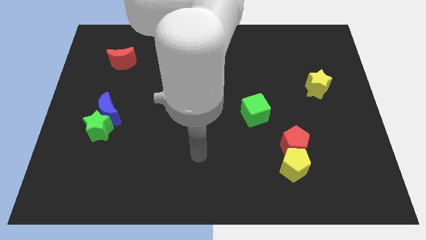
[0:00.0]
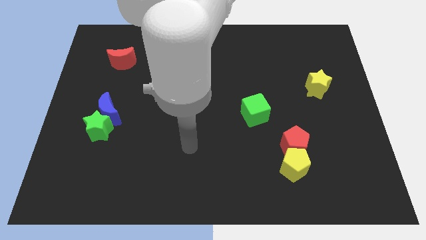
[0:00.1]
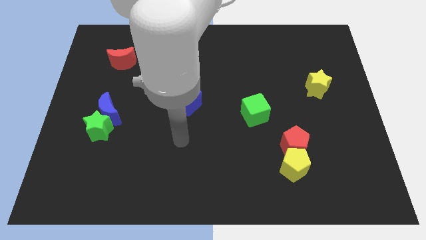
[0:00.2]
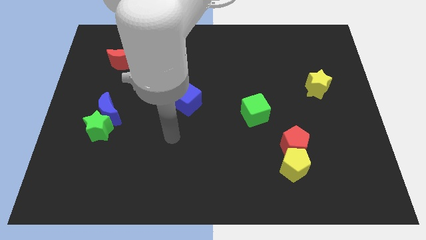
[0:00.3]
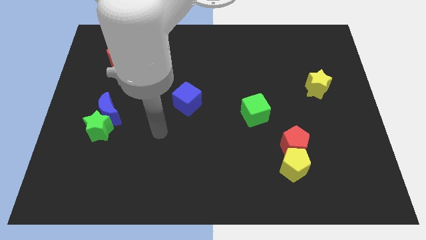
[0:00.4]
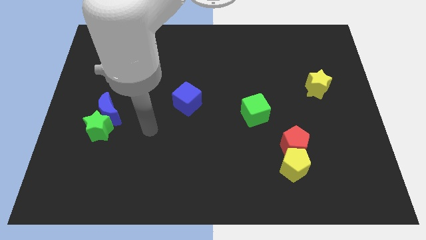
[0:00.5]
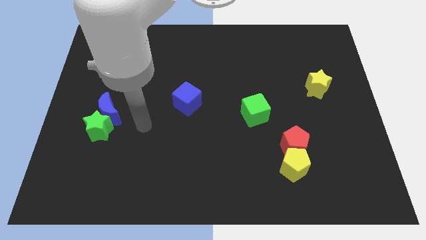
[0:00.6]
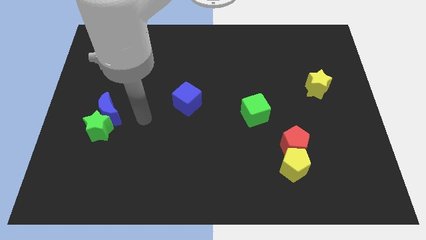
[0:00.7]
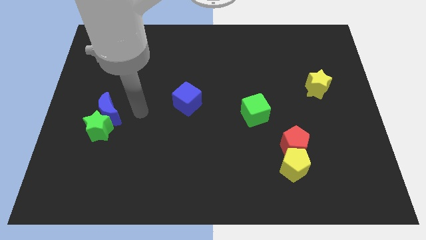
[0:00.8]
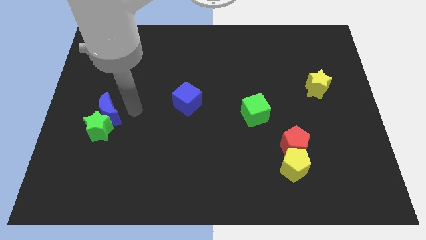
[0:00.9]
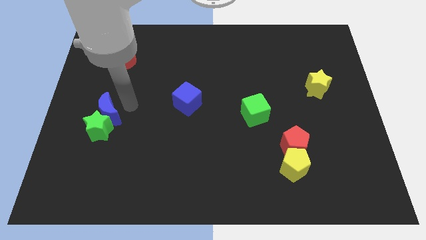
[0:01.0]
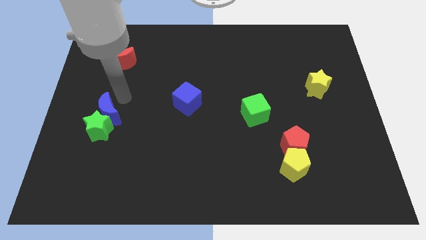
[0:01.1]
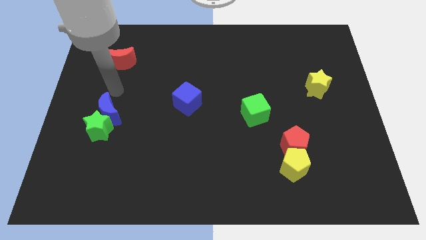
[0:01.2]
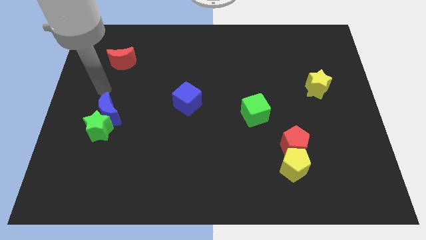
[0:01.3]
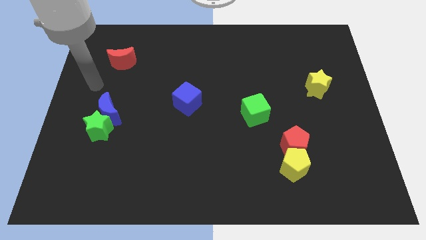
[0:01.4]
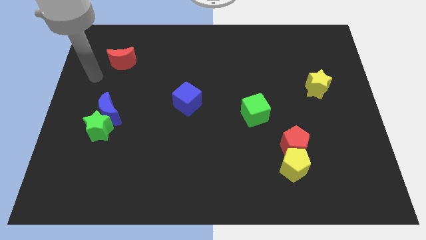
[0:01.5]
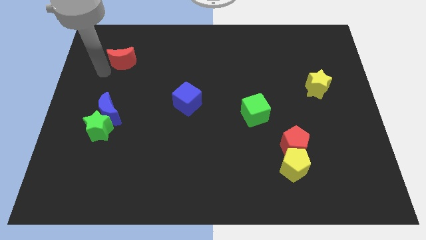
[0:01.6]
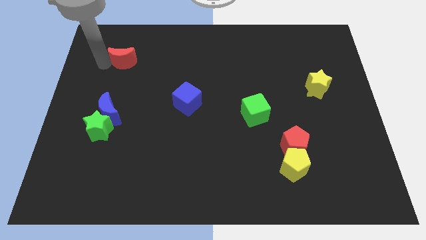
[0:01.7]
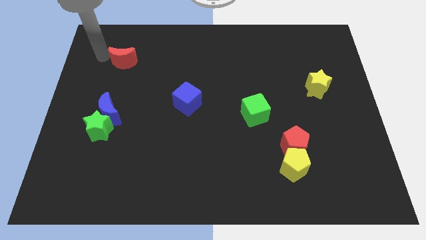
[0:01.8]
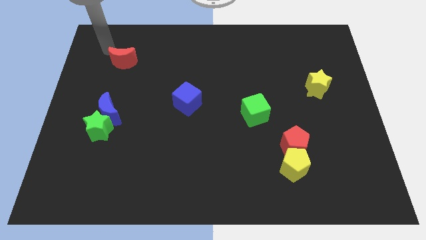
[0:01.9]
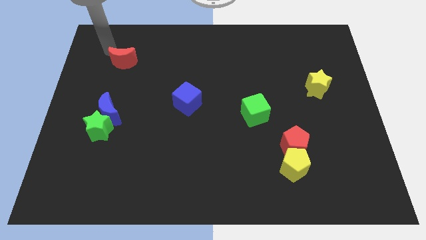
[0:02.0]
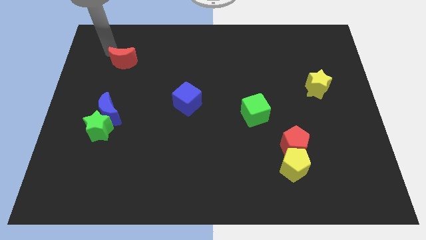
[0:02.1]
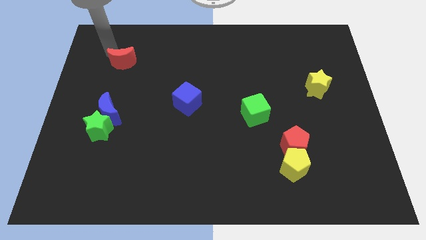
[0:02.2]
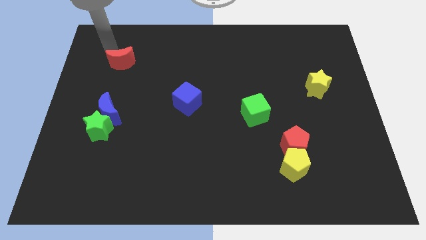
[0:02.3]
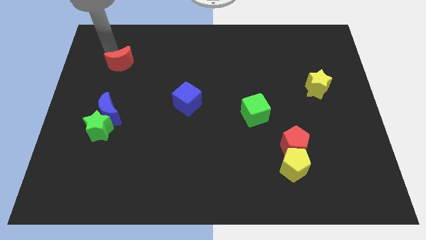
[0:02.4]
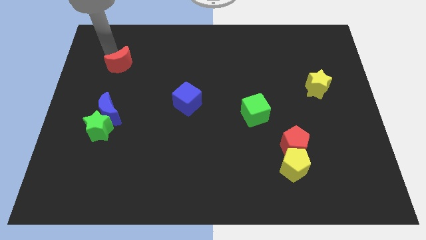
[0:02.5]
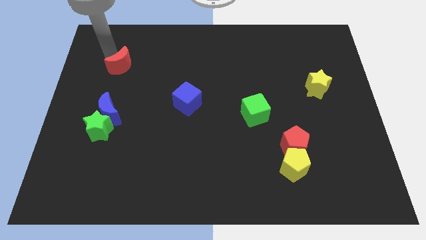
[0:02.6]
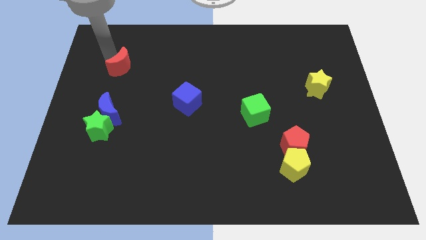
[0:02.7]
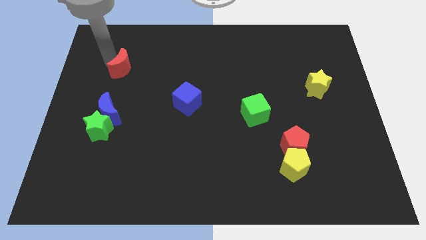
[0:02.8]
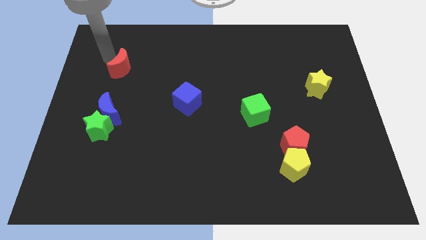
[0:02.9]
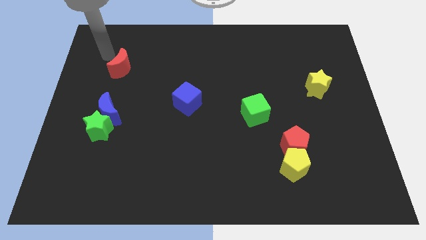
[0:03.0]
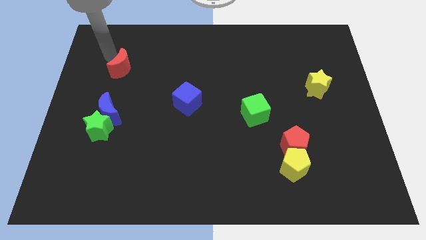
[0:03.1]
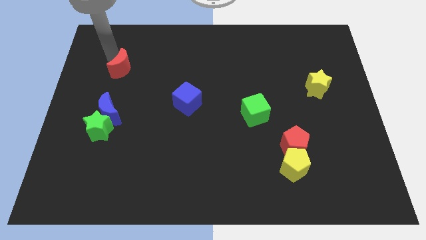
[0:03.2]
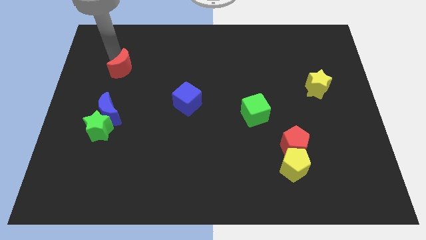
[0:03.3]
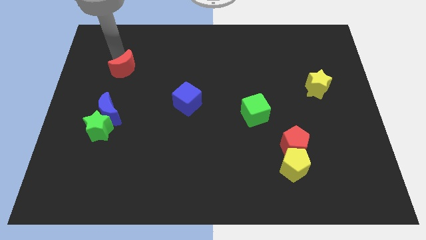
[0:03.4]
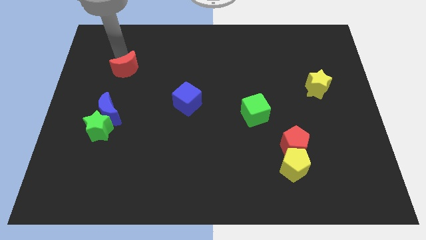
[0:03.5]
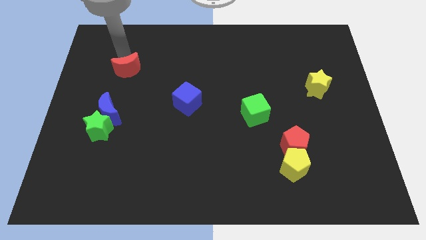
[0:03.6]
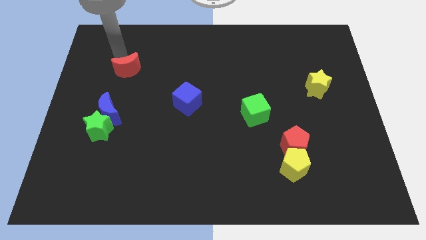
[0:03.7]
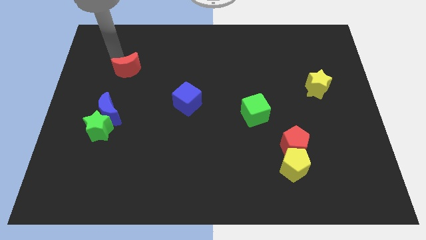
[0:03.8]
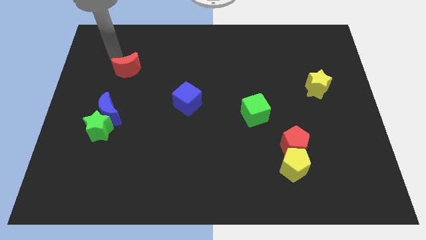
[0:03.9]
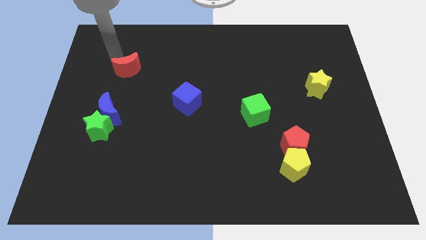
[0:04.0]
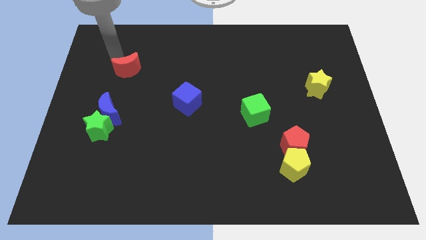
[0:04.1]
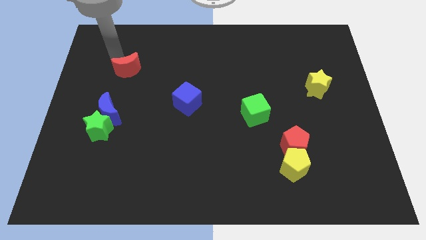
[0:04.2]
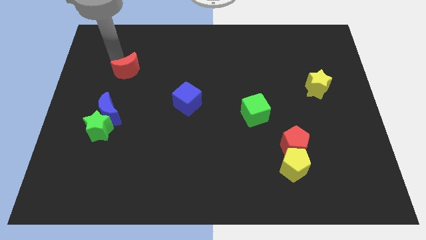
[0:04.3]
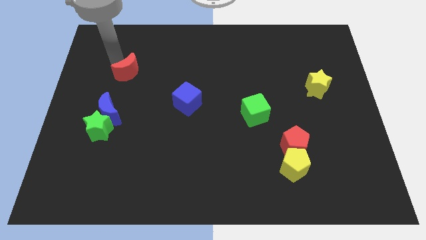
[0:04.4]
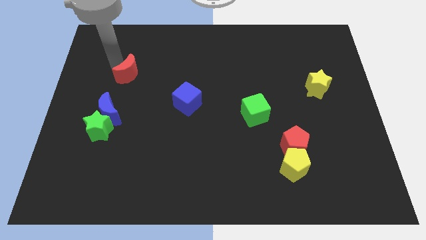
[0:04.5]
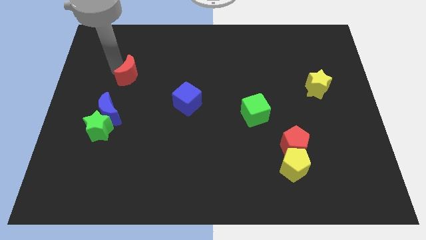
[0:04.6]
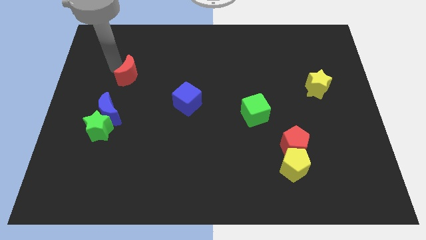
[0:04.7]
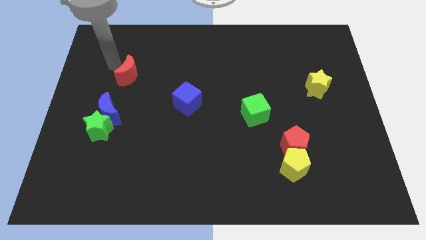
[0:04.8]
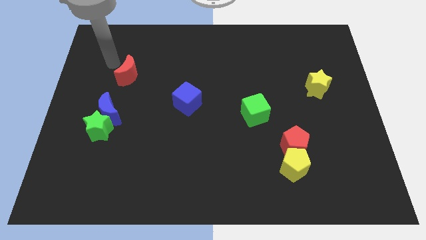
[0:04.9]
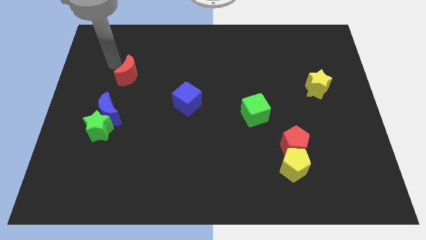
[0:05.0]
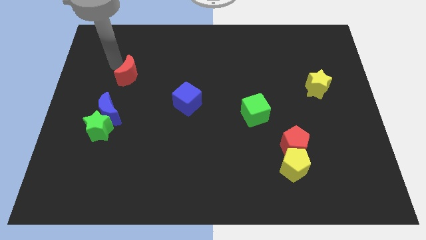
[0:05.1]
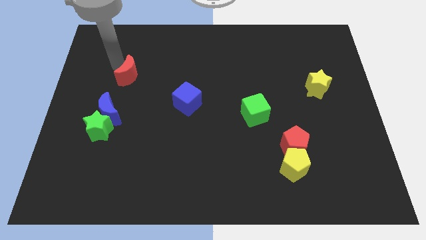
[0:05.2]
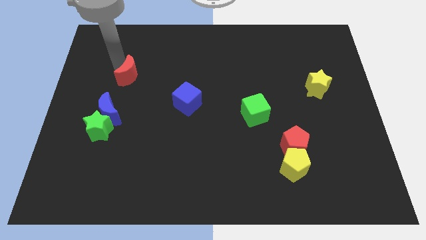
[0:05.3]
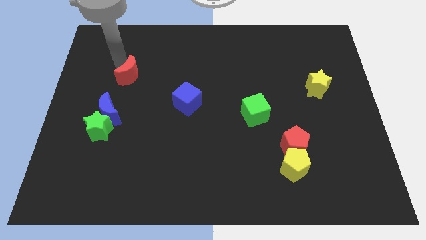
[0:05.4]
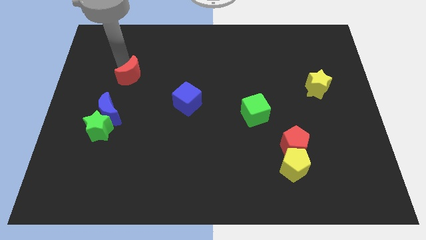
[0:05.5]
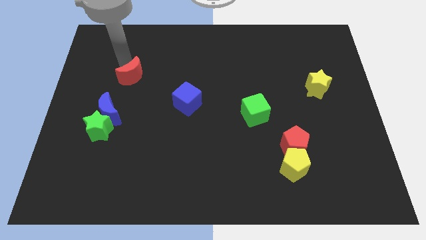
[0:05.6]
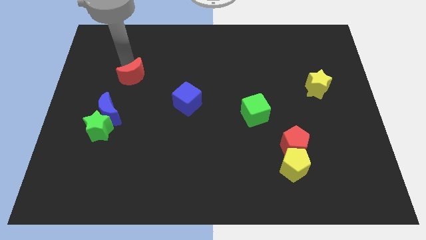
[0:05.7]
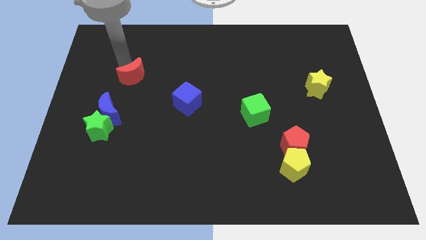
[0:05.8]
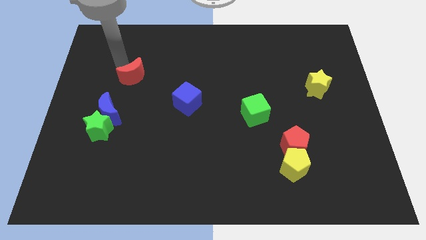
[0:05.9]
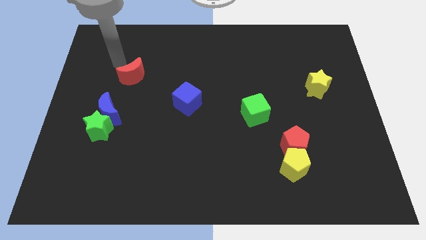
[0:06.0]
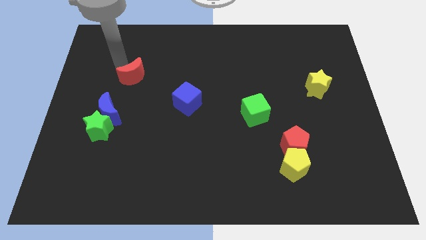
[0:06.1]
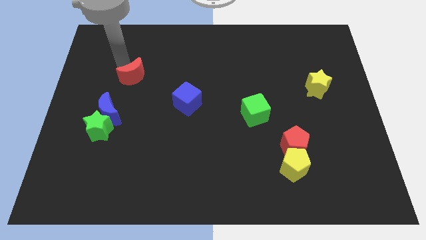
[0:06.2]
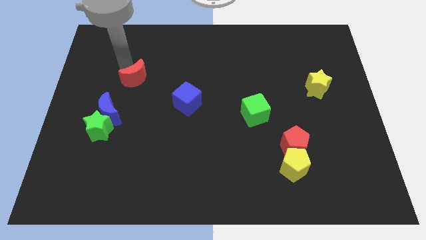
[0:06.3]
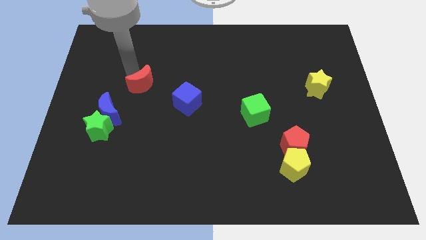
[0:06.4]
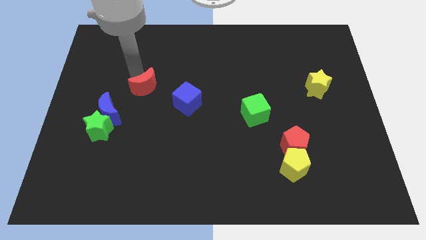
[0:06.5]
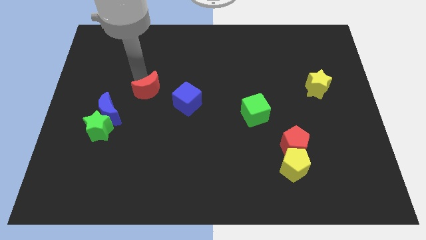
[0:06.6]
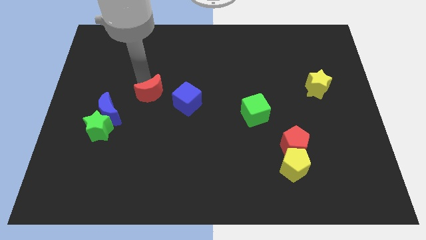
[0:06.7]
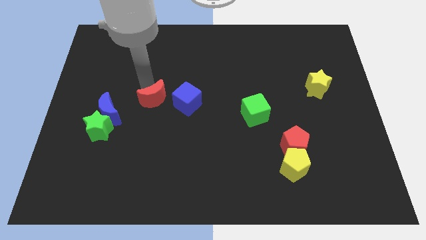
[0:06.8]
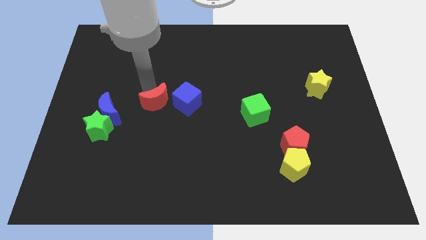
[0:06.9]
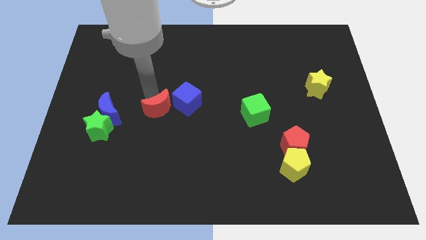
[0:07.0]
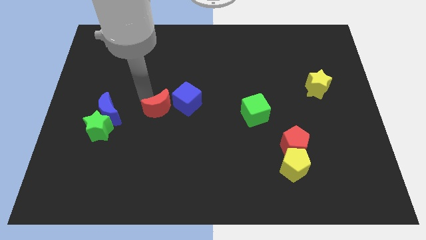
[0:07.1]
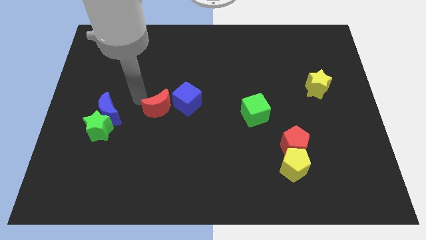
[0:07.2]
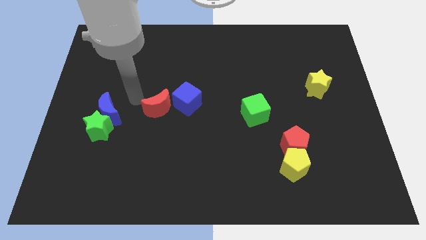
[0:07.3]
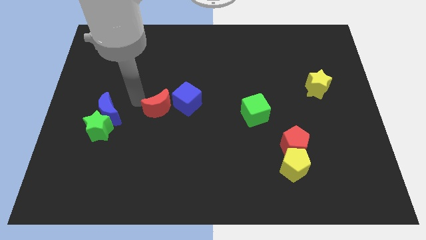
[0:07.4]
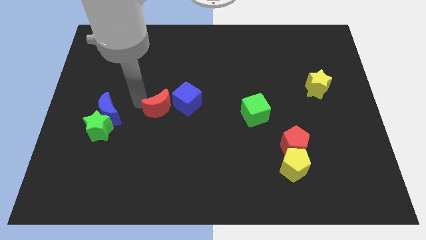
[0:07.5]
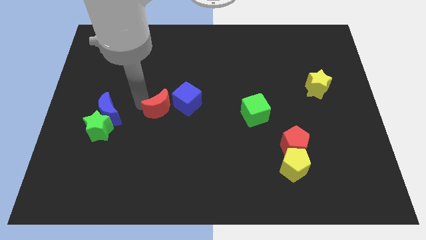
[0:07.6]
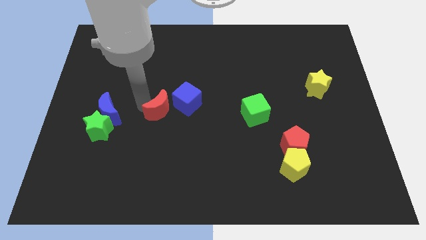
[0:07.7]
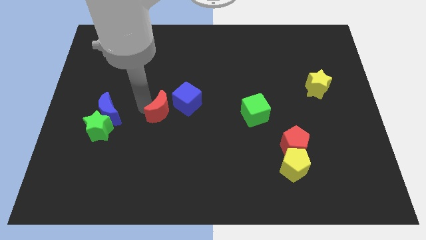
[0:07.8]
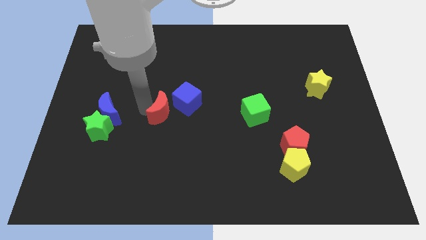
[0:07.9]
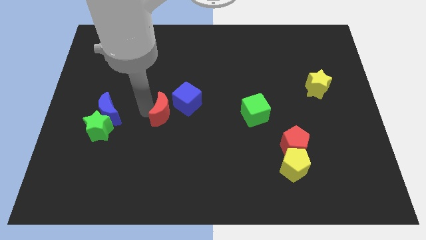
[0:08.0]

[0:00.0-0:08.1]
push the red moon down and to the right
